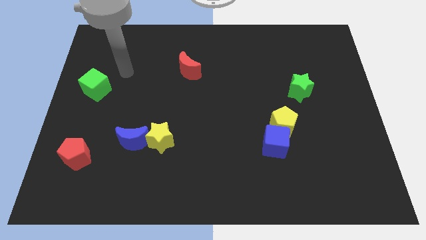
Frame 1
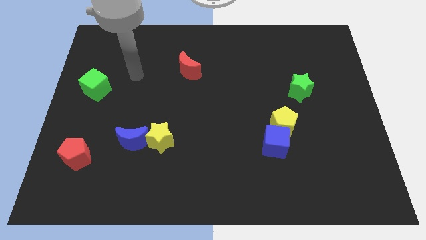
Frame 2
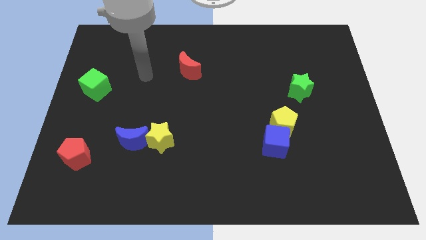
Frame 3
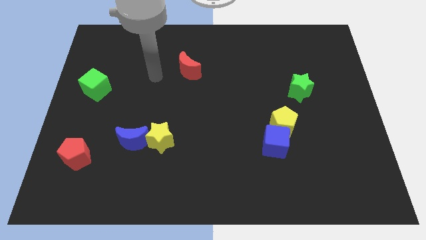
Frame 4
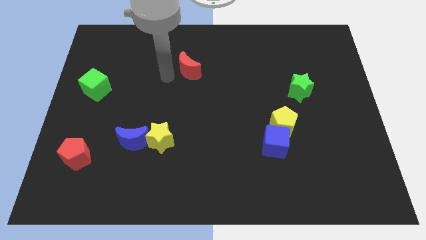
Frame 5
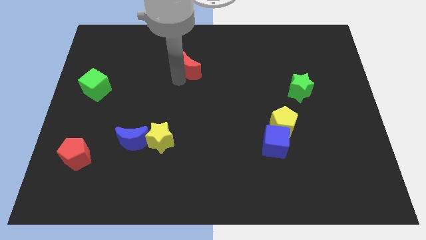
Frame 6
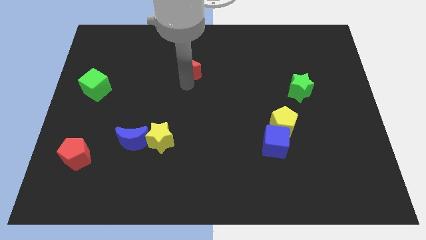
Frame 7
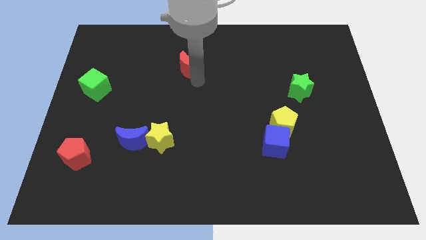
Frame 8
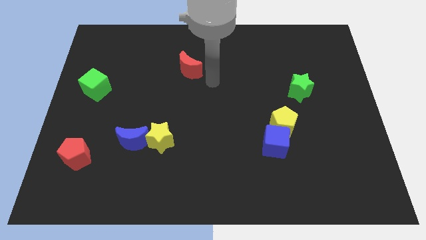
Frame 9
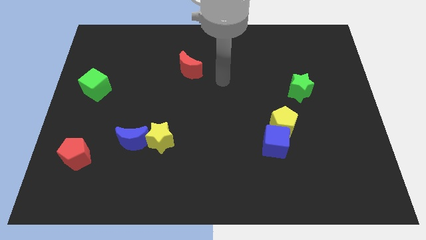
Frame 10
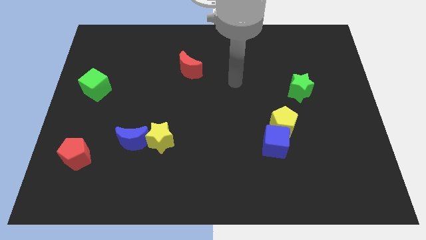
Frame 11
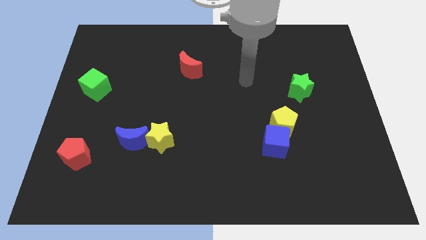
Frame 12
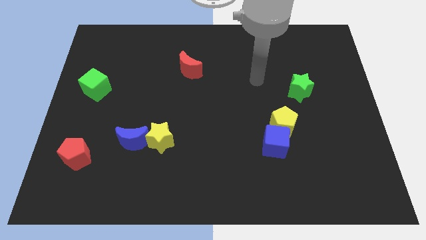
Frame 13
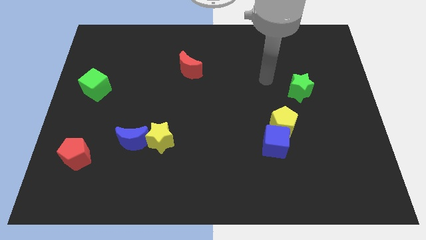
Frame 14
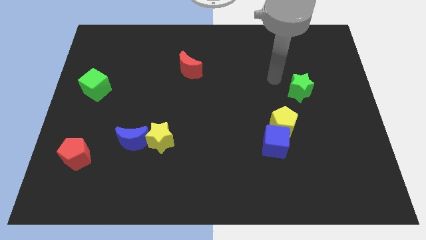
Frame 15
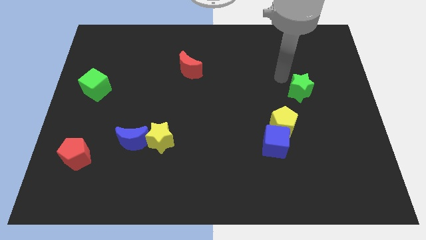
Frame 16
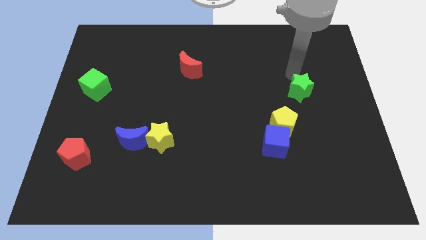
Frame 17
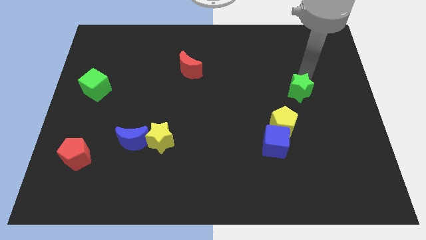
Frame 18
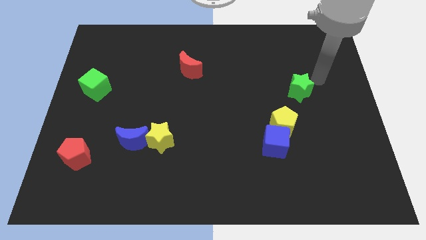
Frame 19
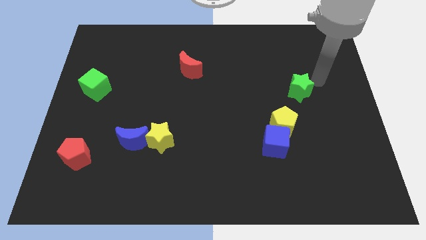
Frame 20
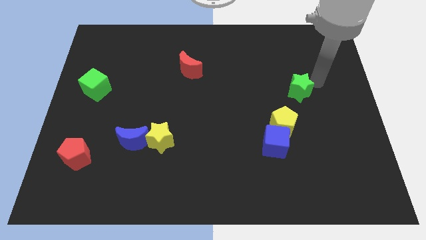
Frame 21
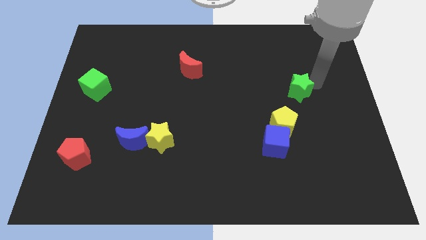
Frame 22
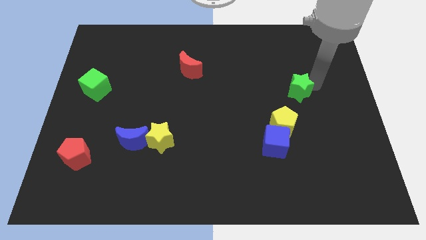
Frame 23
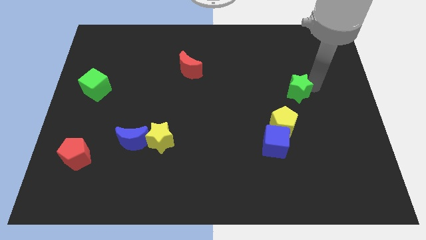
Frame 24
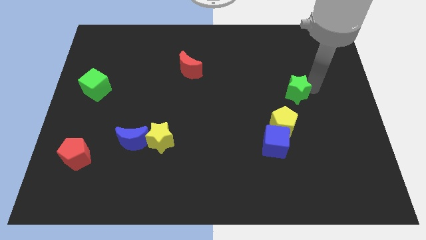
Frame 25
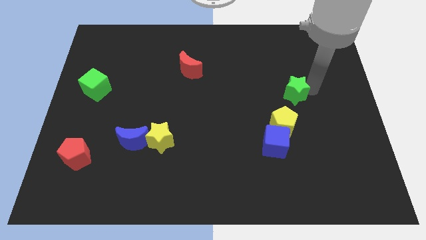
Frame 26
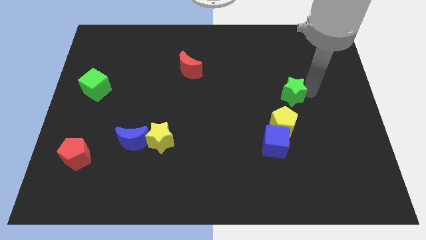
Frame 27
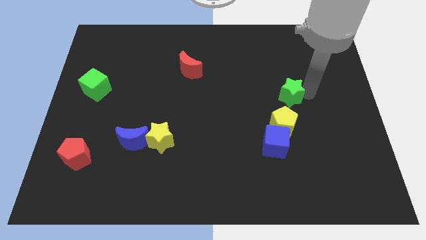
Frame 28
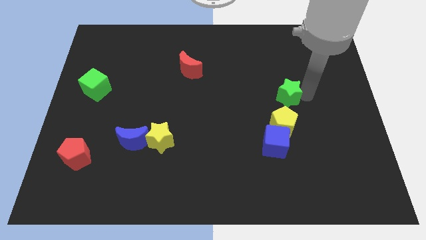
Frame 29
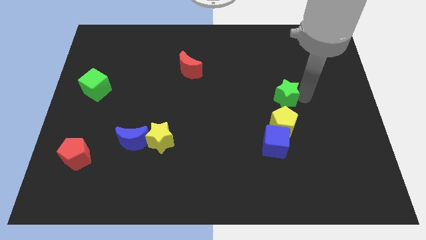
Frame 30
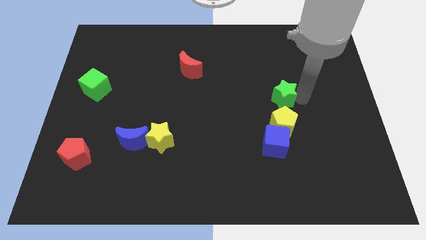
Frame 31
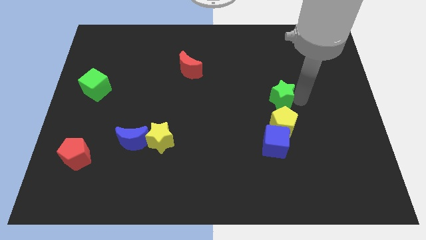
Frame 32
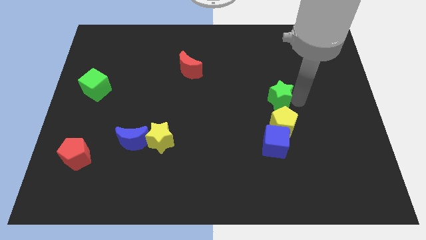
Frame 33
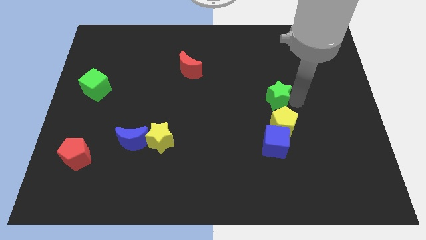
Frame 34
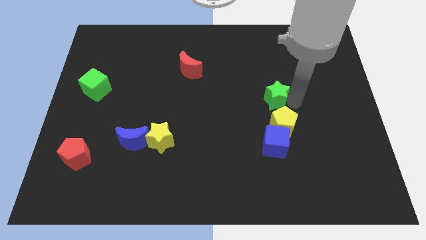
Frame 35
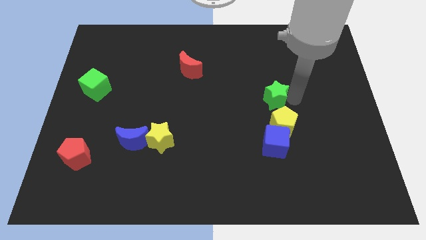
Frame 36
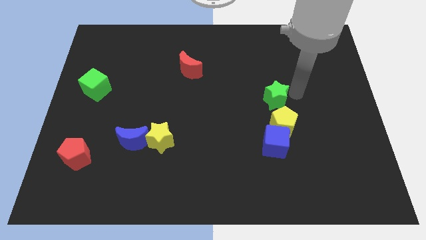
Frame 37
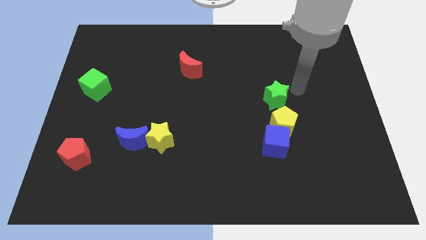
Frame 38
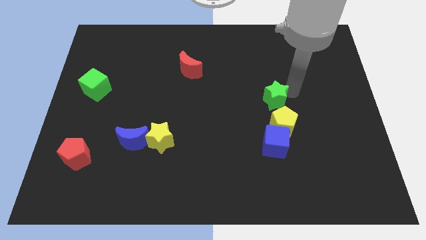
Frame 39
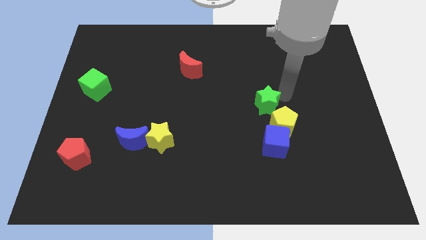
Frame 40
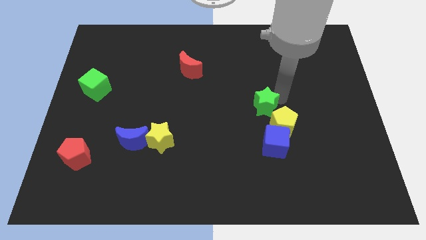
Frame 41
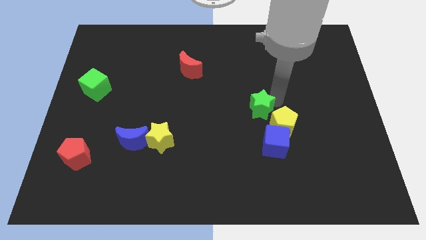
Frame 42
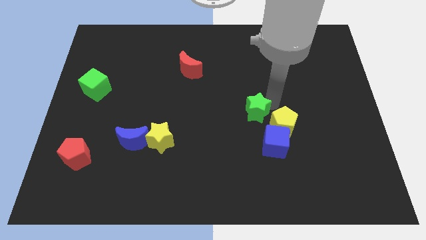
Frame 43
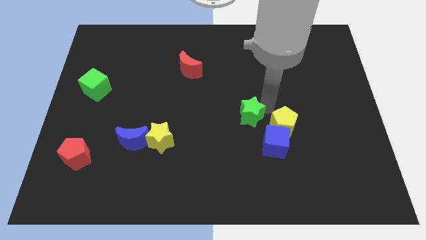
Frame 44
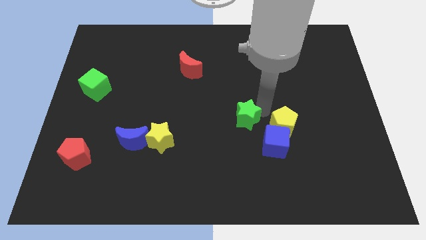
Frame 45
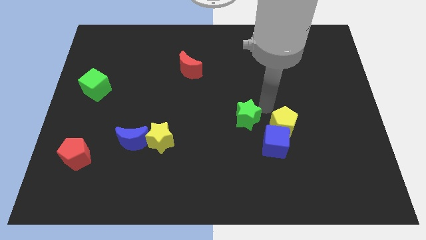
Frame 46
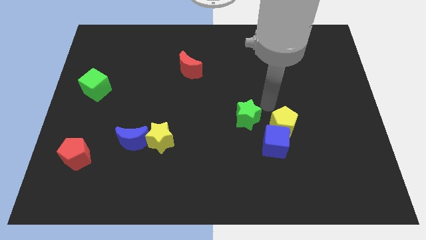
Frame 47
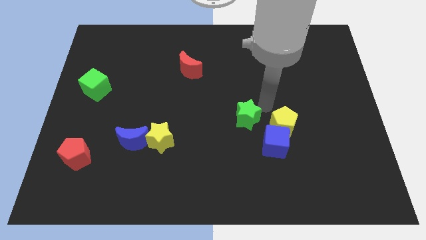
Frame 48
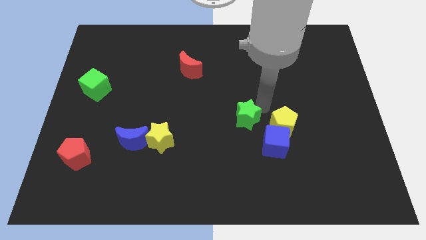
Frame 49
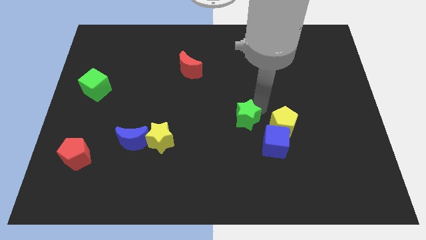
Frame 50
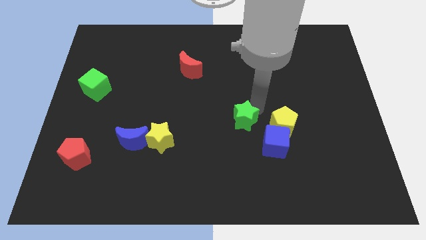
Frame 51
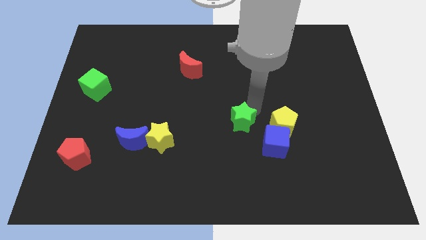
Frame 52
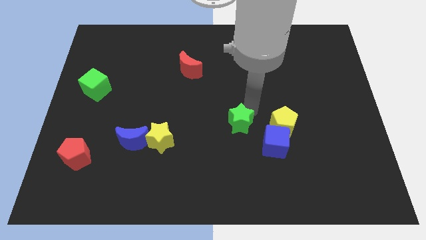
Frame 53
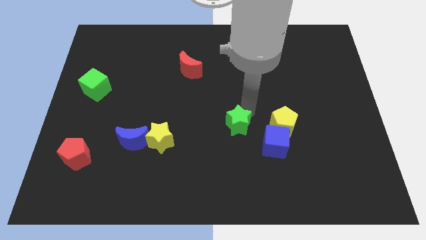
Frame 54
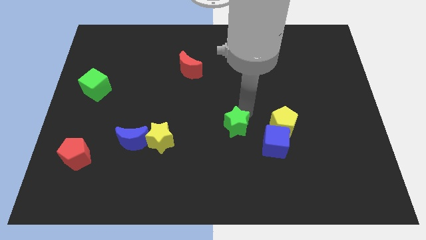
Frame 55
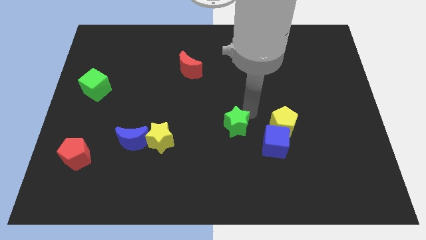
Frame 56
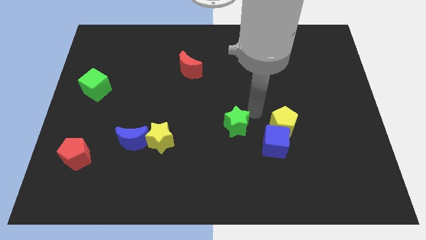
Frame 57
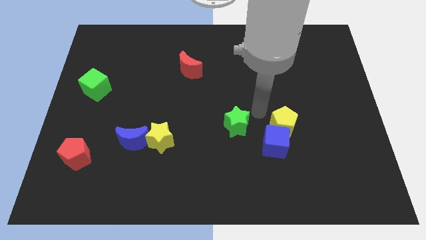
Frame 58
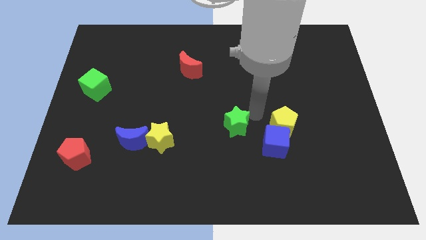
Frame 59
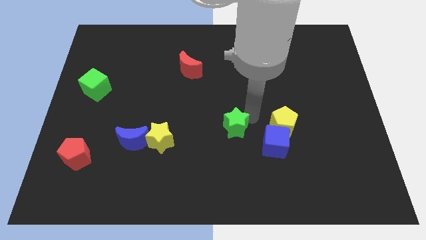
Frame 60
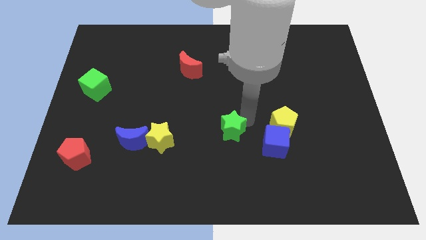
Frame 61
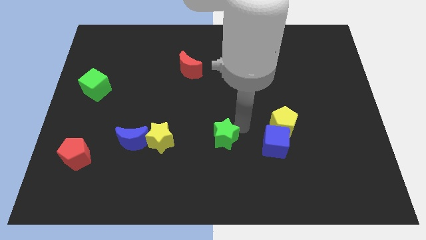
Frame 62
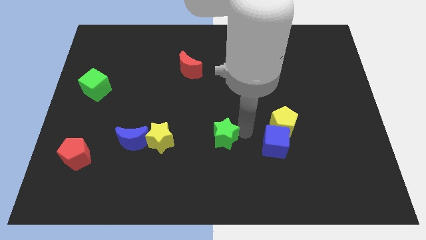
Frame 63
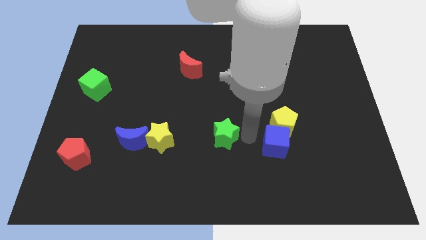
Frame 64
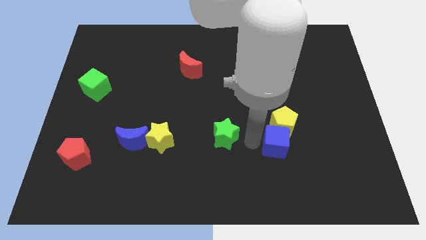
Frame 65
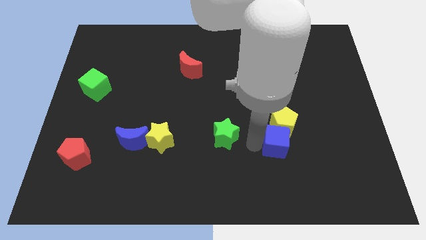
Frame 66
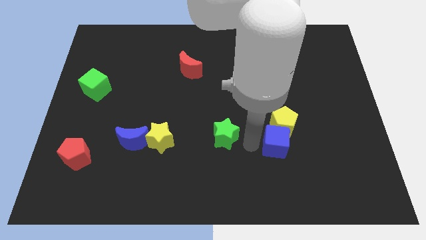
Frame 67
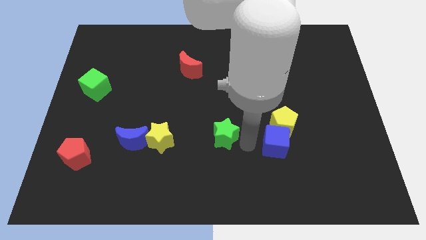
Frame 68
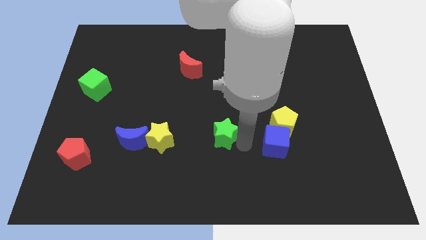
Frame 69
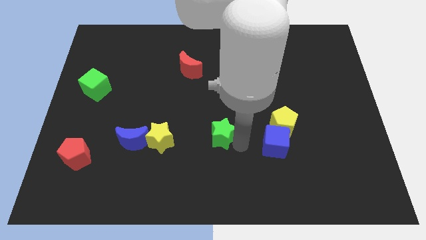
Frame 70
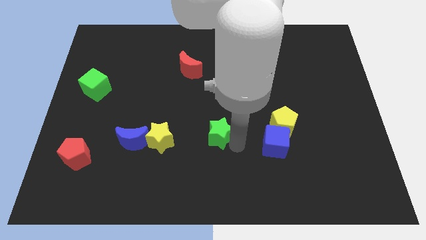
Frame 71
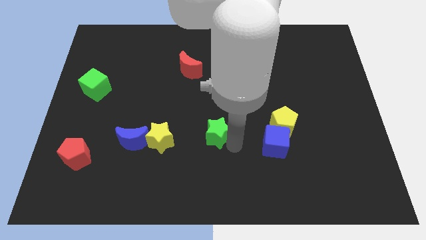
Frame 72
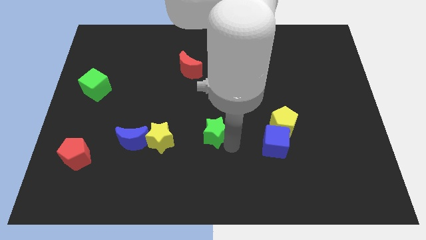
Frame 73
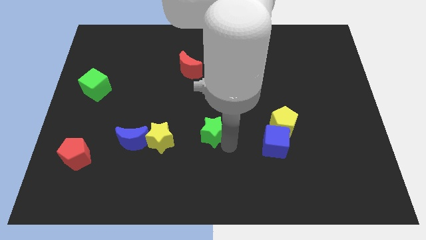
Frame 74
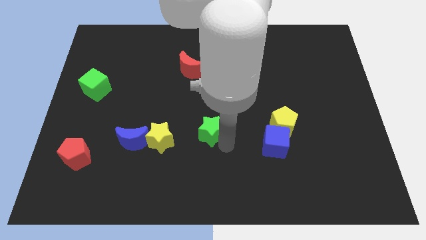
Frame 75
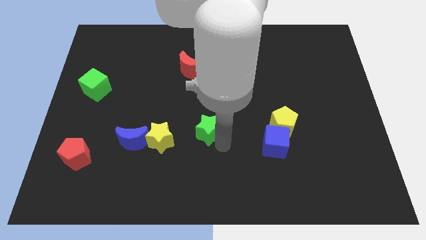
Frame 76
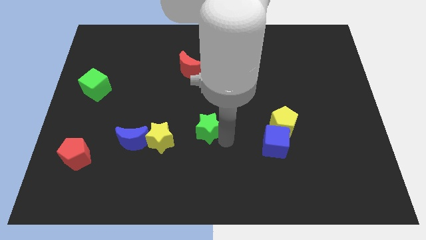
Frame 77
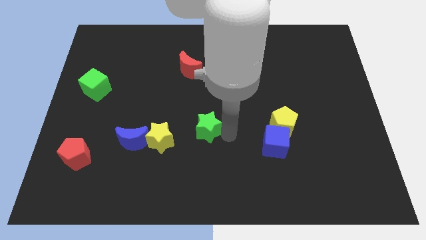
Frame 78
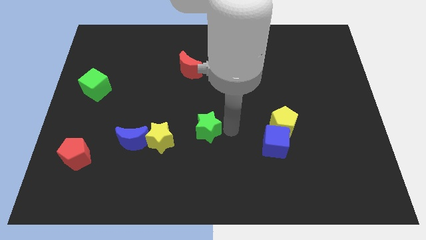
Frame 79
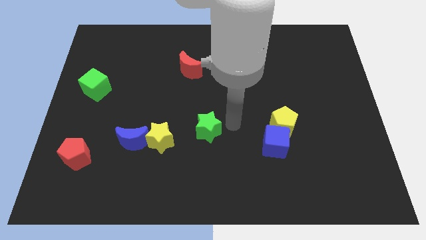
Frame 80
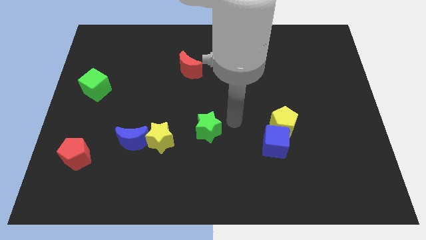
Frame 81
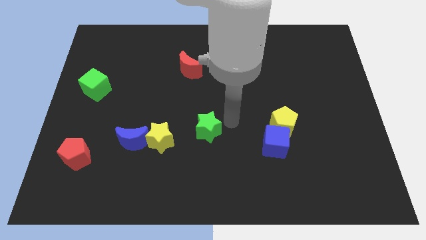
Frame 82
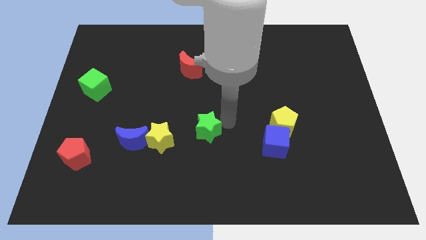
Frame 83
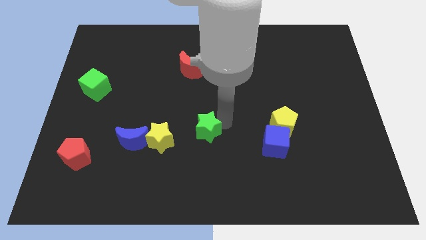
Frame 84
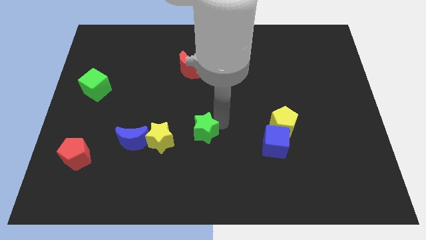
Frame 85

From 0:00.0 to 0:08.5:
push the green star to the right of the blue moon
